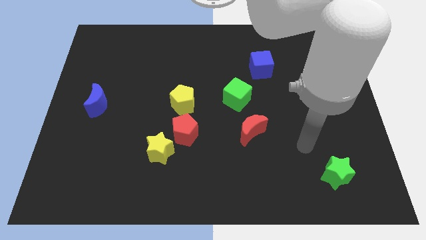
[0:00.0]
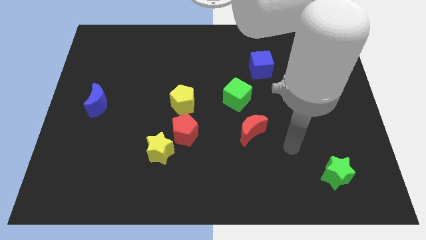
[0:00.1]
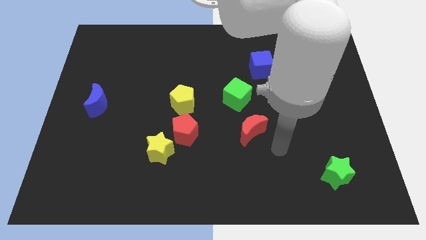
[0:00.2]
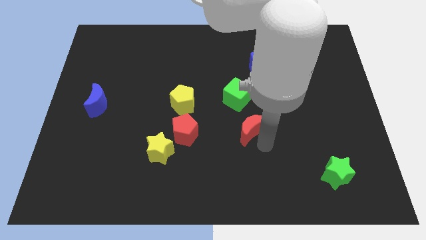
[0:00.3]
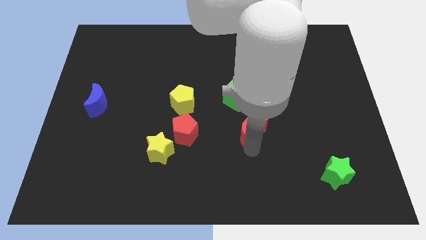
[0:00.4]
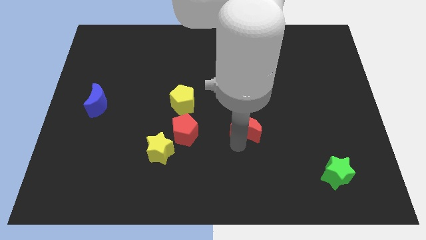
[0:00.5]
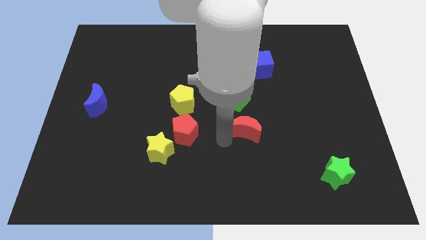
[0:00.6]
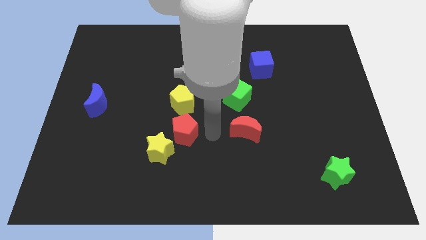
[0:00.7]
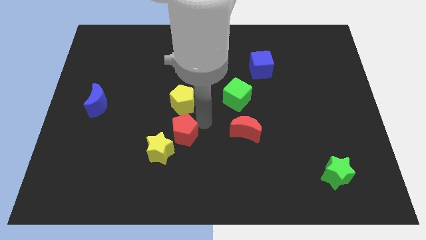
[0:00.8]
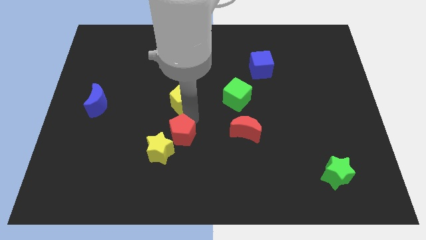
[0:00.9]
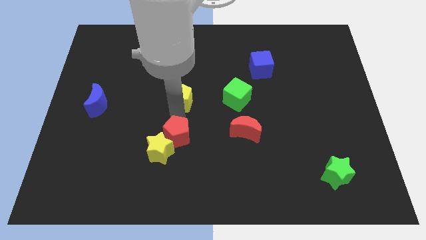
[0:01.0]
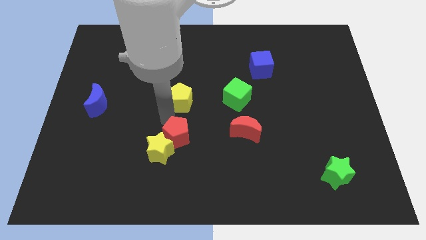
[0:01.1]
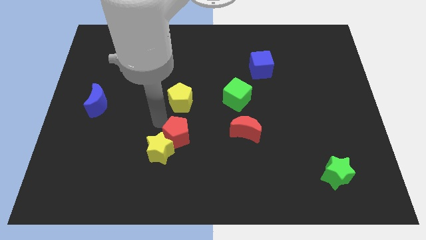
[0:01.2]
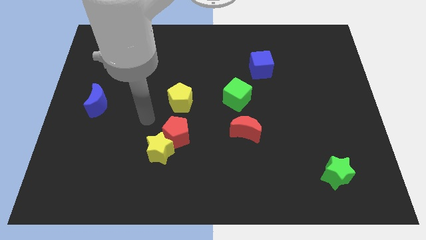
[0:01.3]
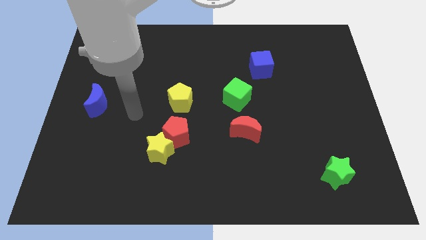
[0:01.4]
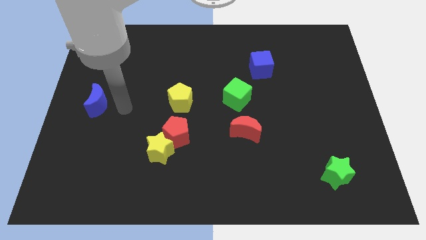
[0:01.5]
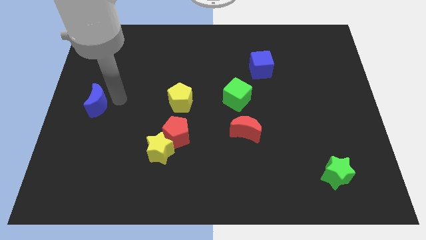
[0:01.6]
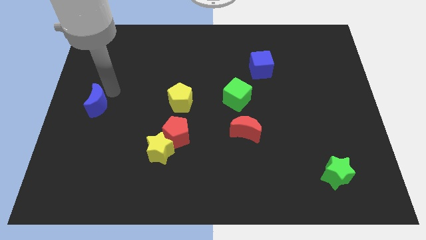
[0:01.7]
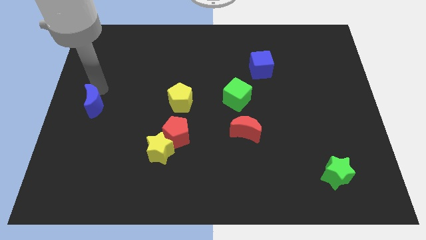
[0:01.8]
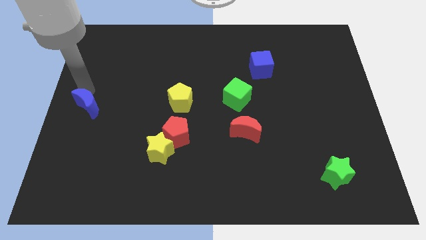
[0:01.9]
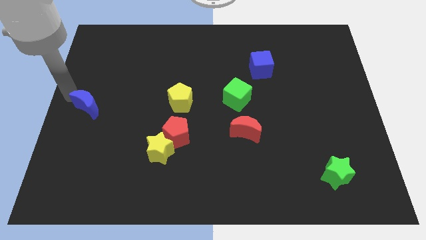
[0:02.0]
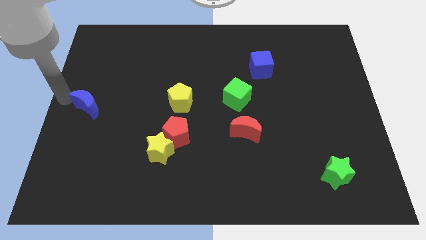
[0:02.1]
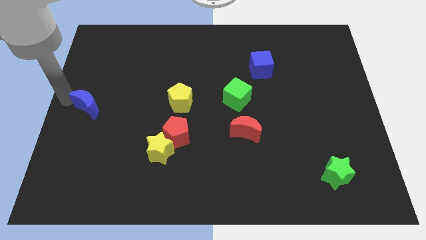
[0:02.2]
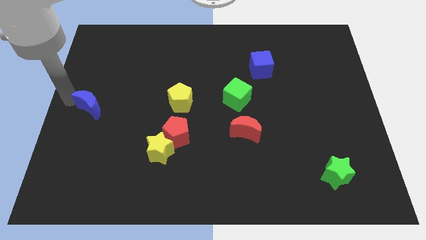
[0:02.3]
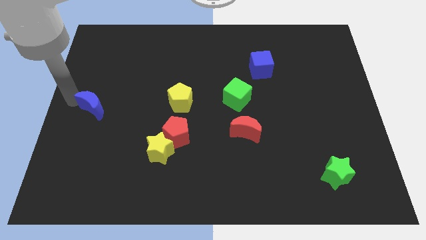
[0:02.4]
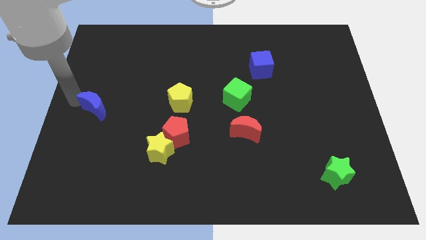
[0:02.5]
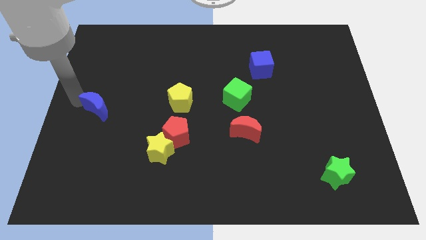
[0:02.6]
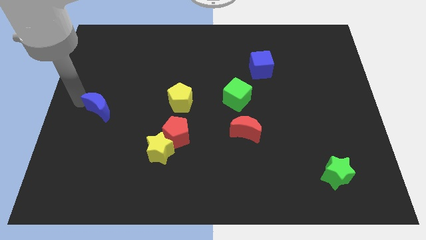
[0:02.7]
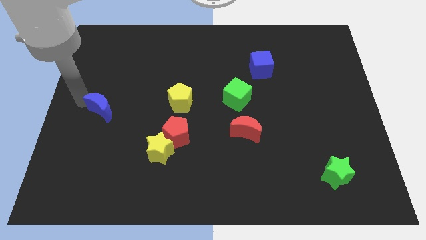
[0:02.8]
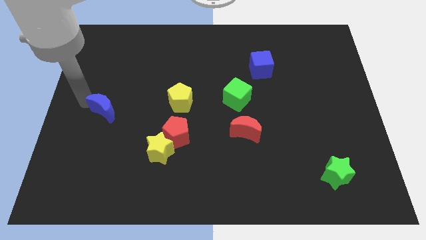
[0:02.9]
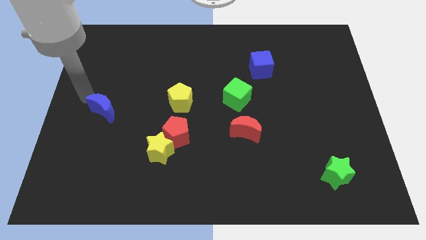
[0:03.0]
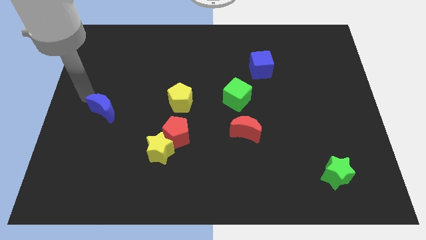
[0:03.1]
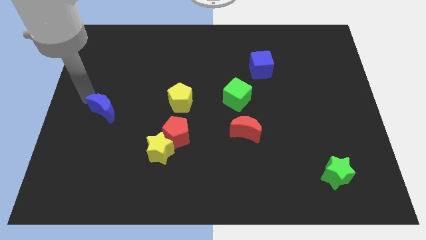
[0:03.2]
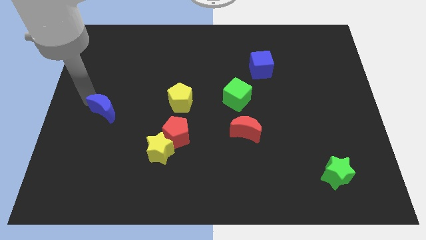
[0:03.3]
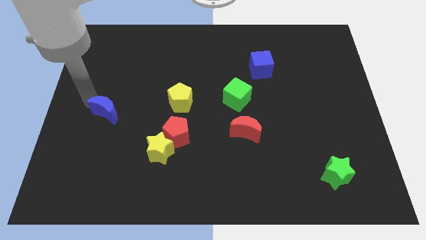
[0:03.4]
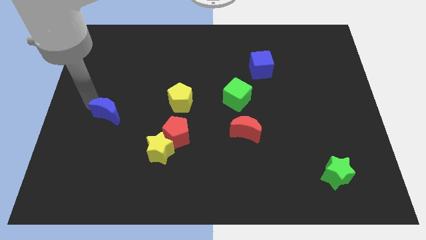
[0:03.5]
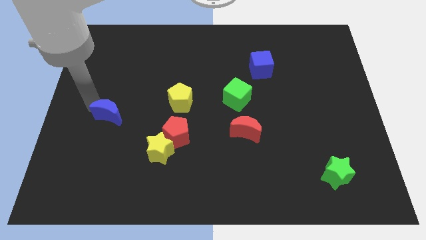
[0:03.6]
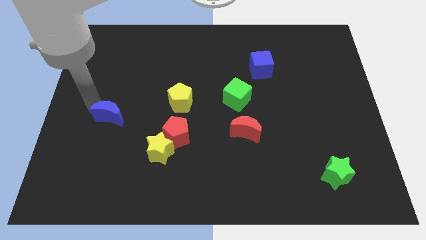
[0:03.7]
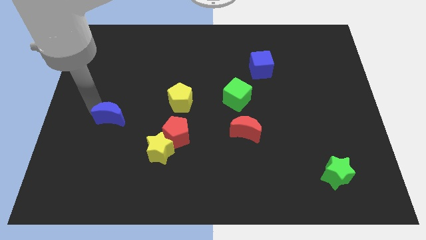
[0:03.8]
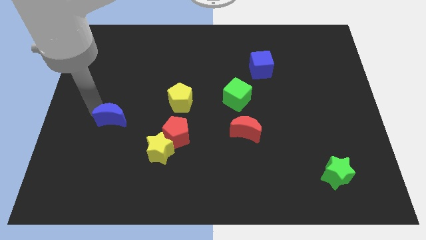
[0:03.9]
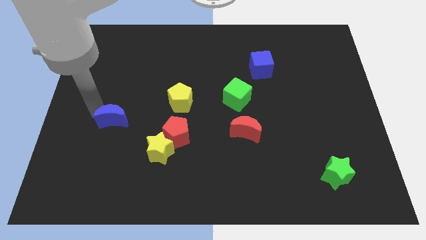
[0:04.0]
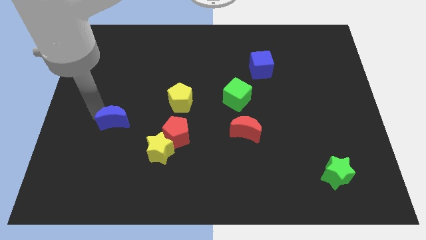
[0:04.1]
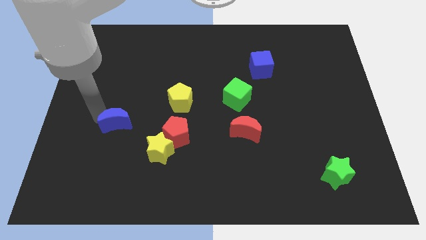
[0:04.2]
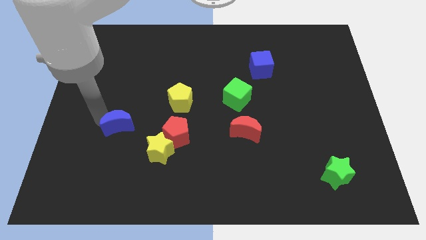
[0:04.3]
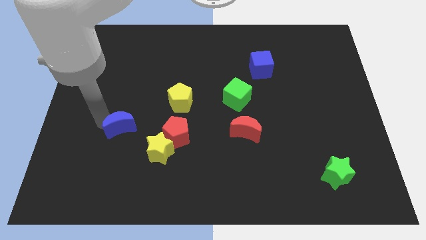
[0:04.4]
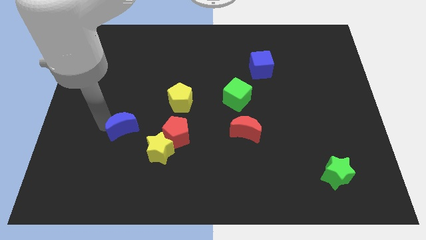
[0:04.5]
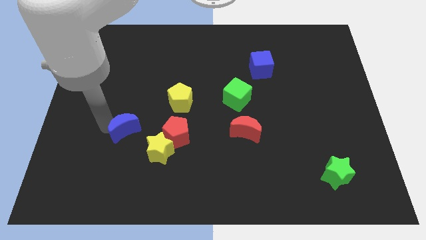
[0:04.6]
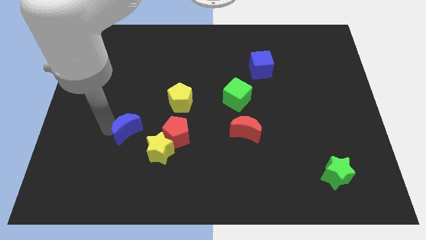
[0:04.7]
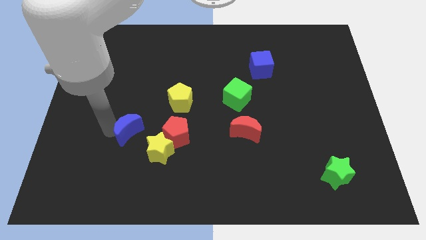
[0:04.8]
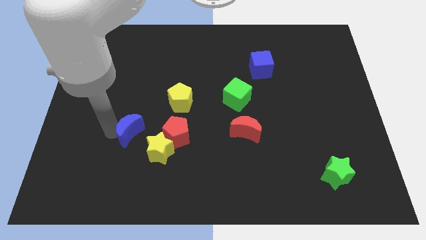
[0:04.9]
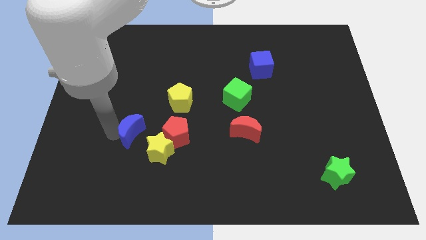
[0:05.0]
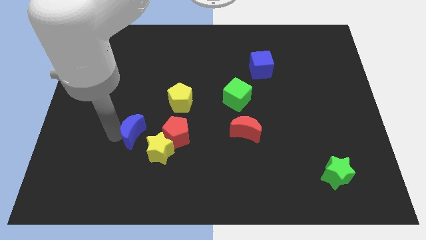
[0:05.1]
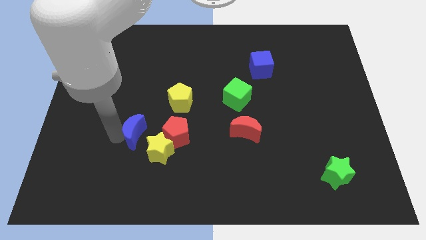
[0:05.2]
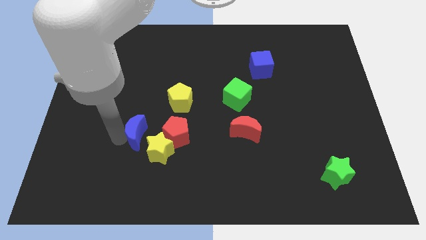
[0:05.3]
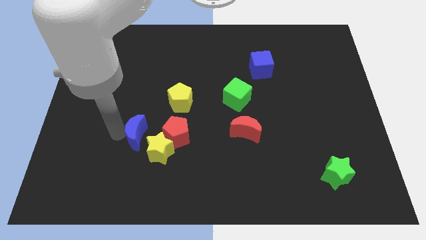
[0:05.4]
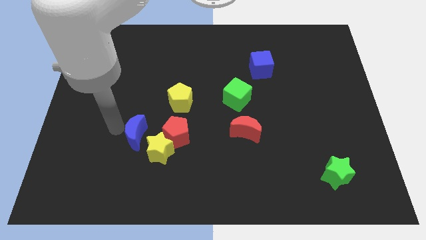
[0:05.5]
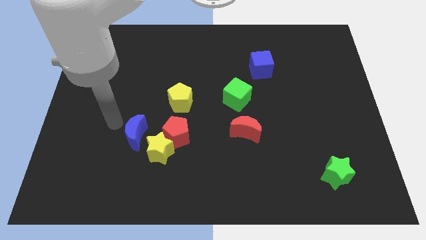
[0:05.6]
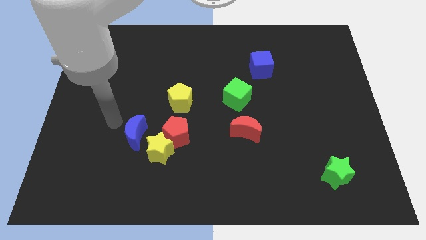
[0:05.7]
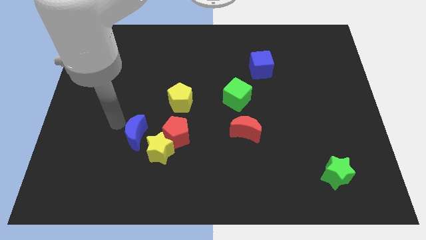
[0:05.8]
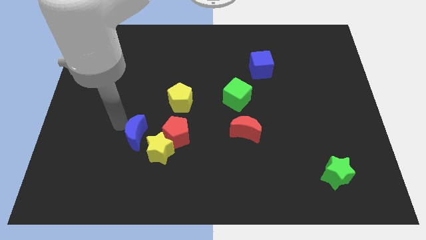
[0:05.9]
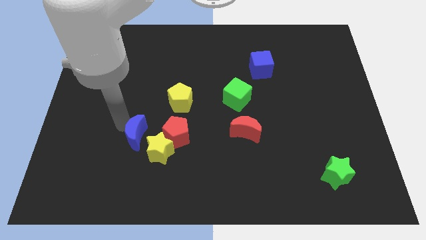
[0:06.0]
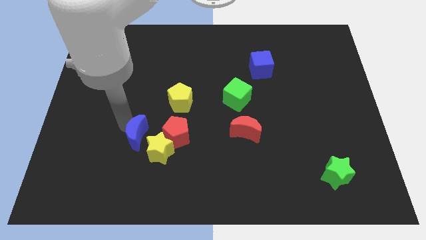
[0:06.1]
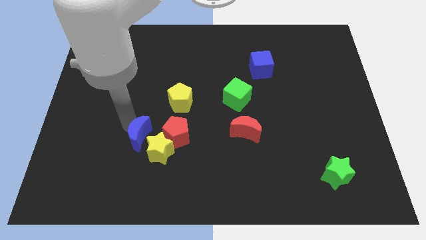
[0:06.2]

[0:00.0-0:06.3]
move the blue moon close to the yellow star

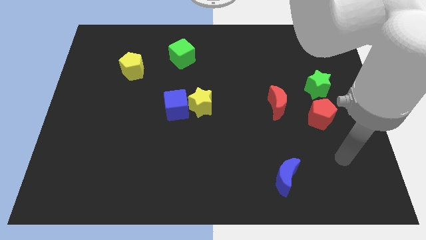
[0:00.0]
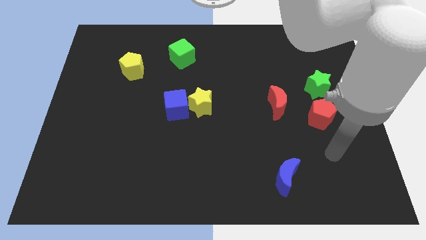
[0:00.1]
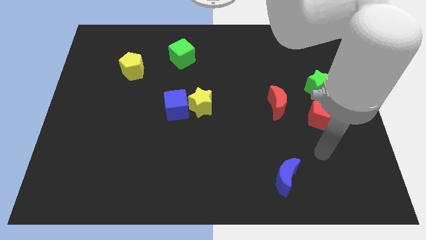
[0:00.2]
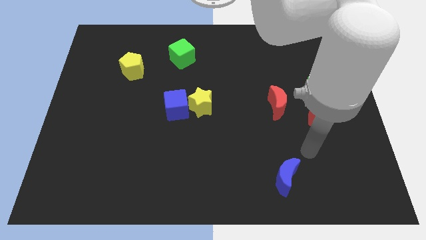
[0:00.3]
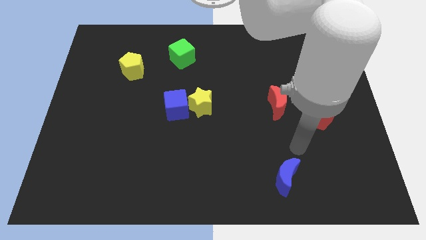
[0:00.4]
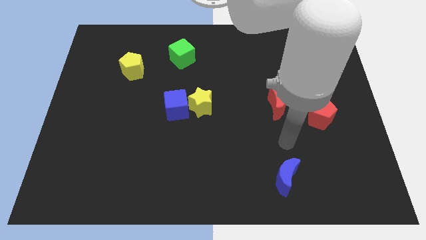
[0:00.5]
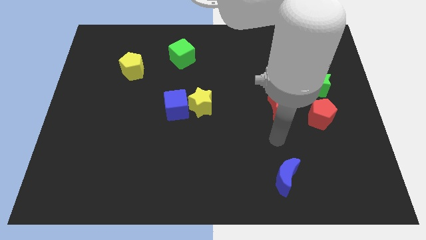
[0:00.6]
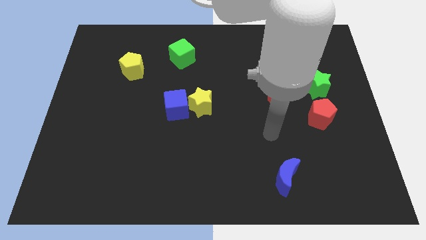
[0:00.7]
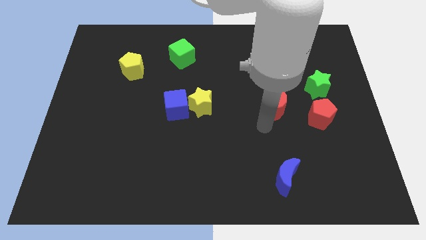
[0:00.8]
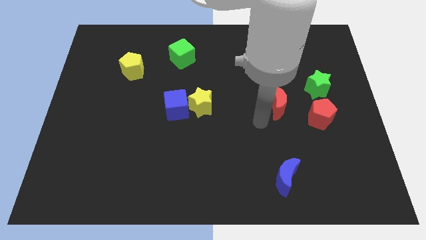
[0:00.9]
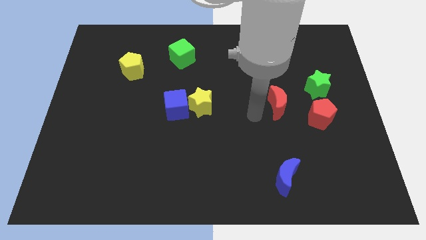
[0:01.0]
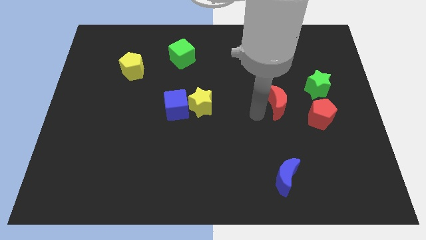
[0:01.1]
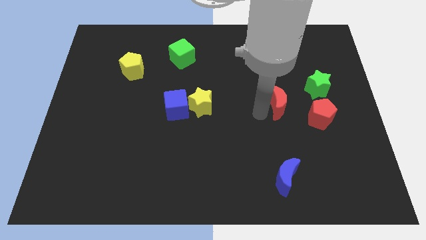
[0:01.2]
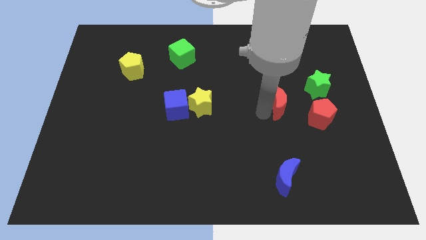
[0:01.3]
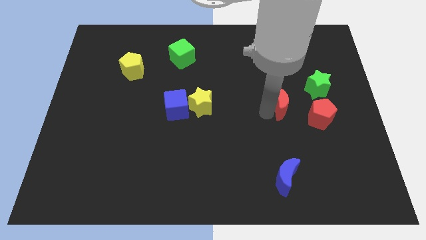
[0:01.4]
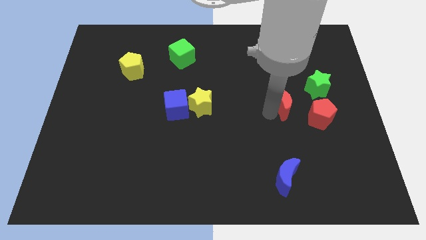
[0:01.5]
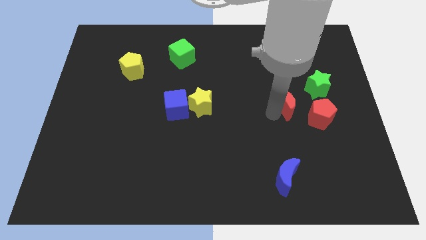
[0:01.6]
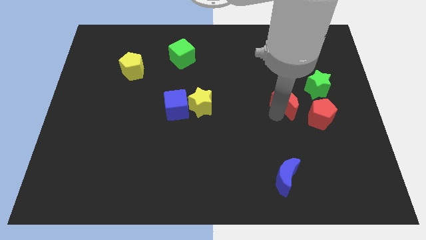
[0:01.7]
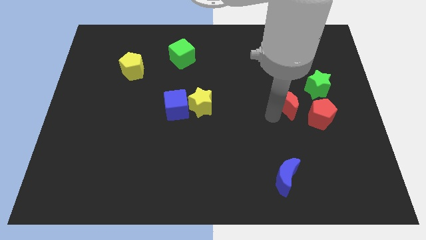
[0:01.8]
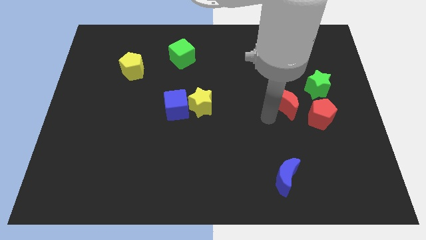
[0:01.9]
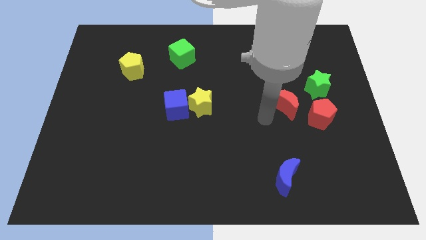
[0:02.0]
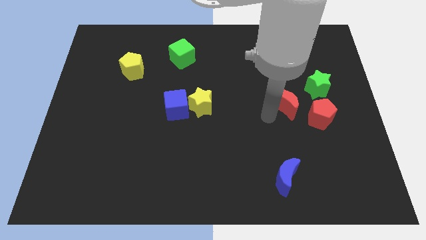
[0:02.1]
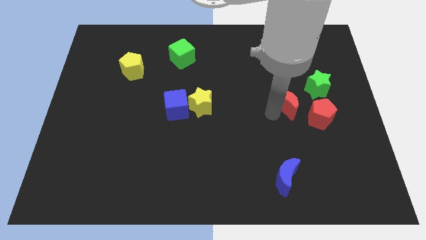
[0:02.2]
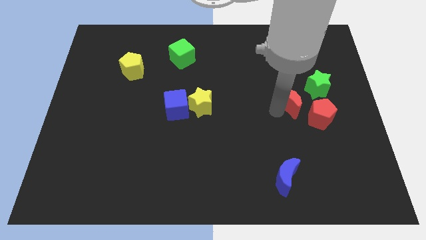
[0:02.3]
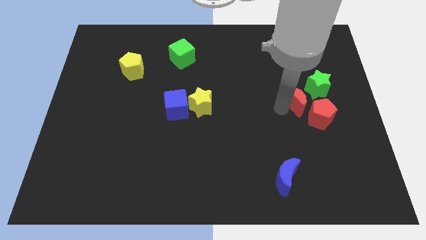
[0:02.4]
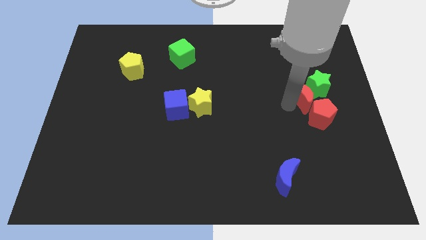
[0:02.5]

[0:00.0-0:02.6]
slide the red moon close to the green star
